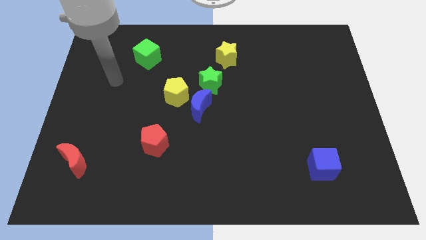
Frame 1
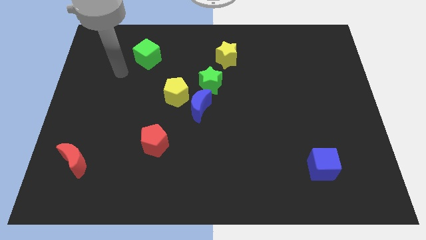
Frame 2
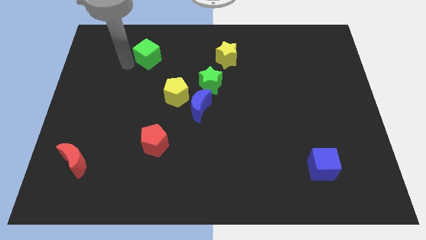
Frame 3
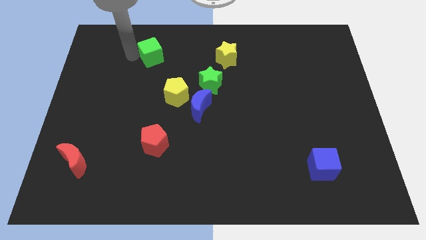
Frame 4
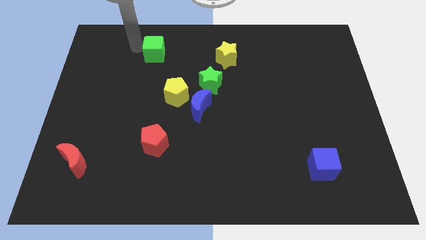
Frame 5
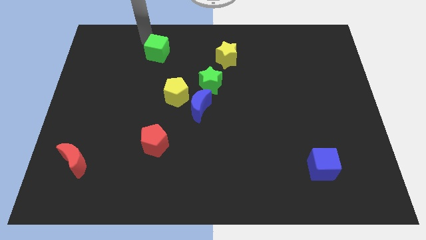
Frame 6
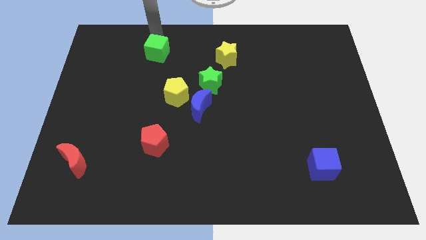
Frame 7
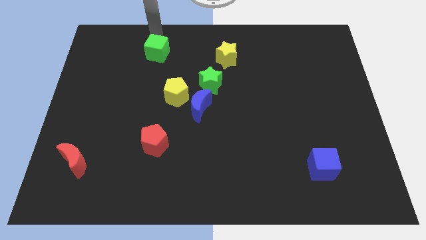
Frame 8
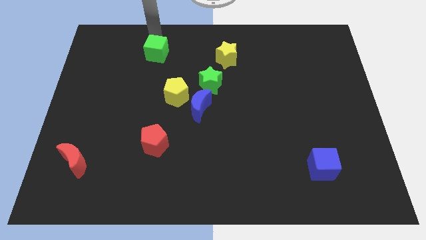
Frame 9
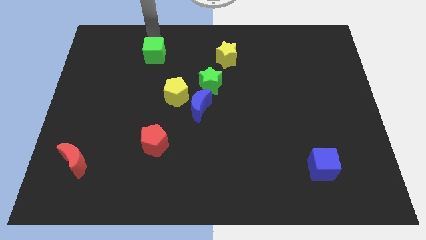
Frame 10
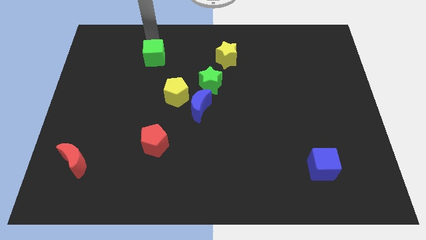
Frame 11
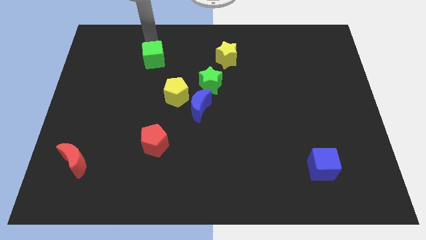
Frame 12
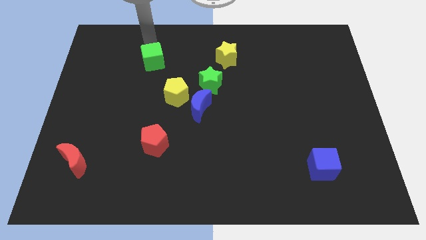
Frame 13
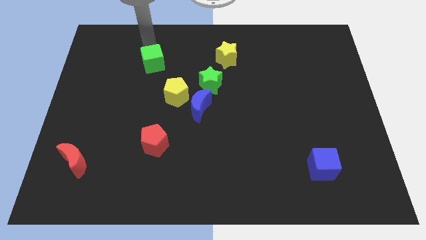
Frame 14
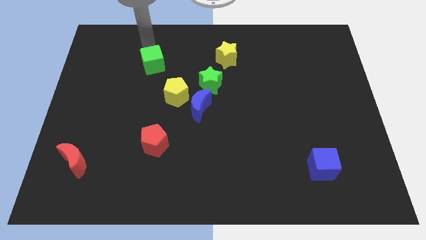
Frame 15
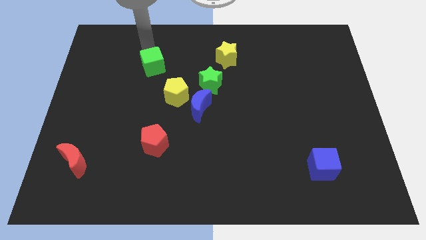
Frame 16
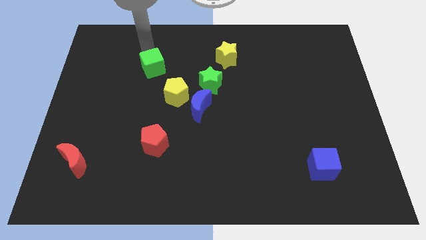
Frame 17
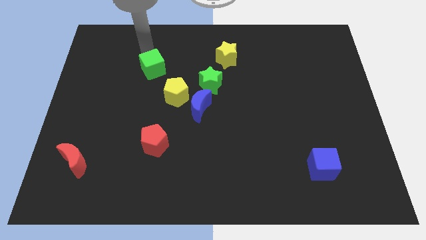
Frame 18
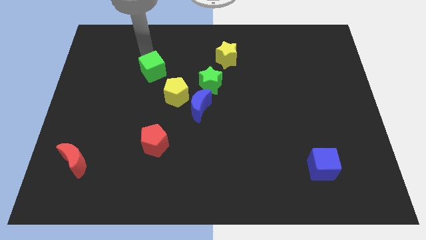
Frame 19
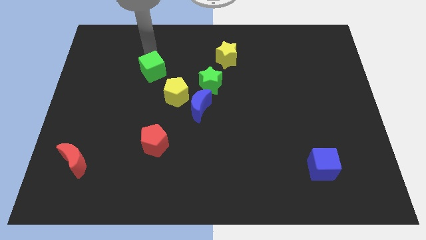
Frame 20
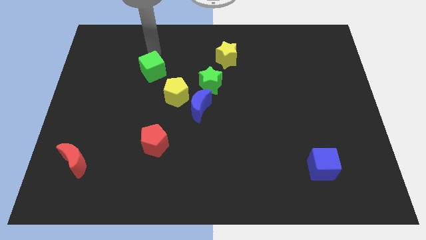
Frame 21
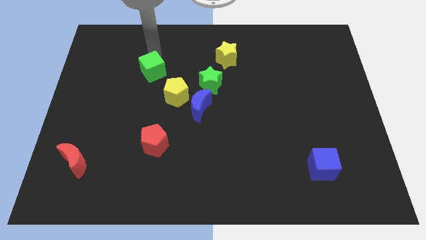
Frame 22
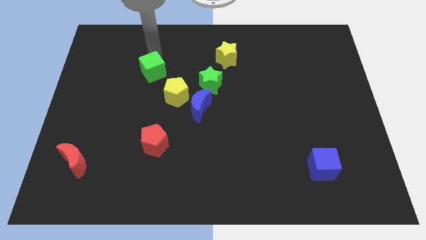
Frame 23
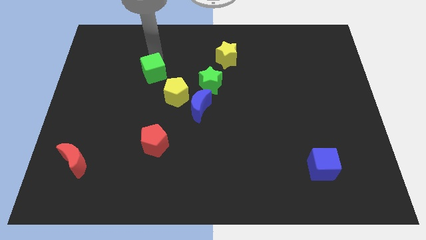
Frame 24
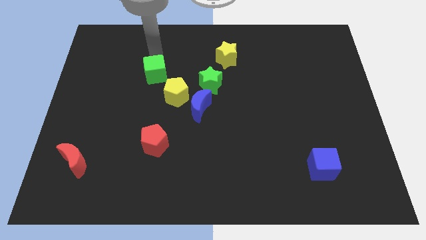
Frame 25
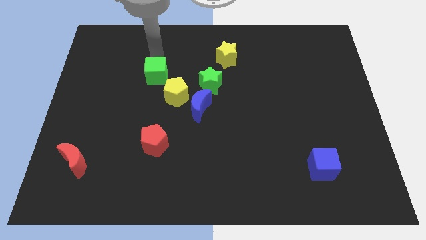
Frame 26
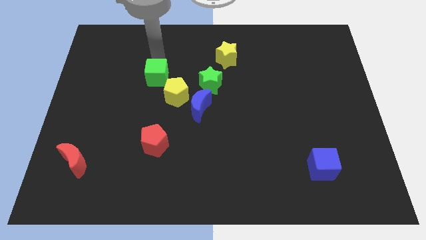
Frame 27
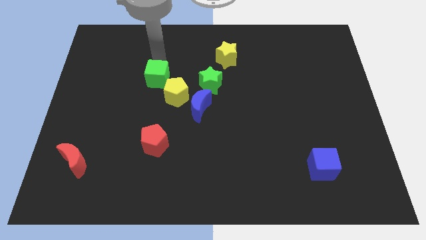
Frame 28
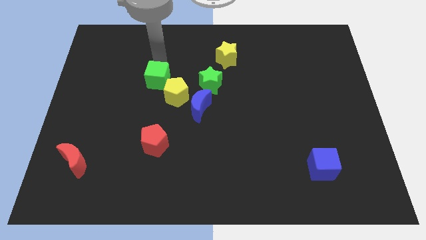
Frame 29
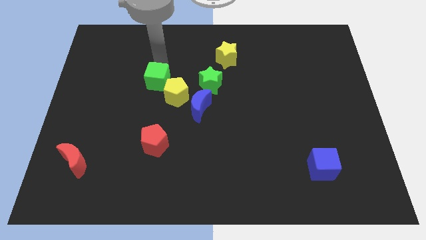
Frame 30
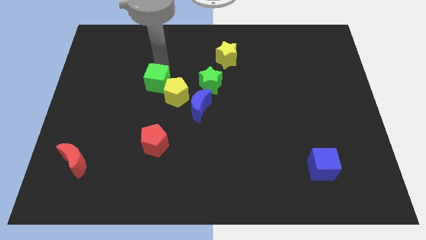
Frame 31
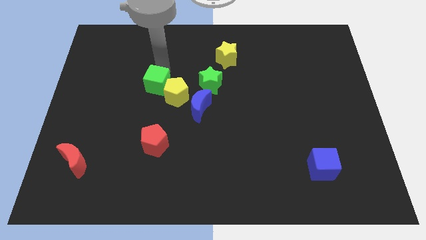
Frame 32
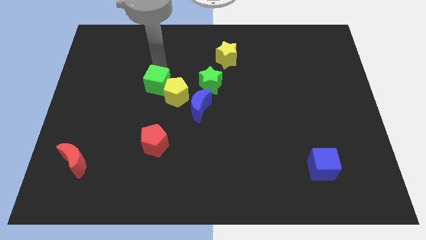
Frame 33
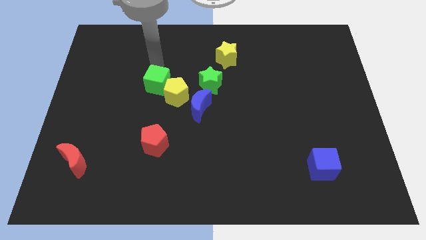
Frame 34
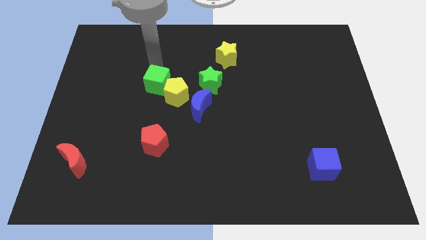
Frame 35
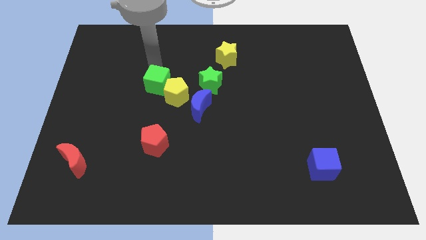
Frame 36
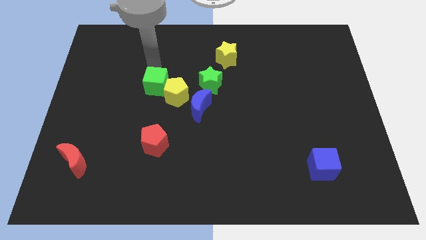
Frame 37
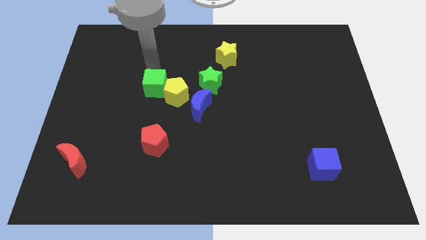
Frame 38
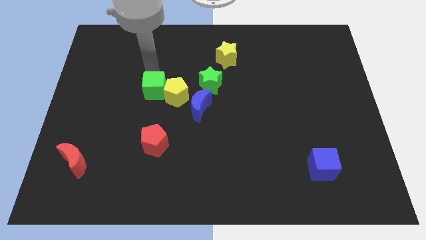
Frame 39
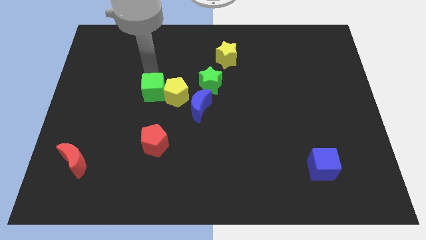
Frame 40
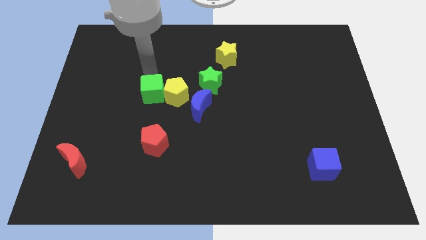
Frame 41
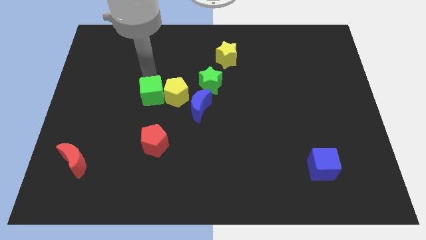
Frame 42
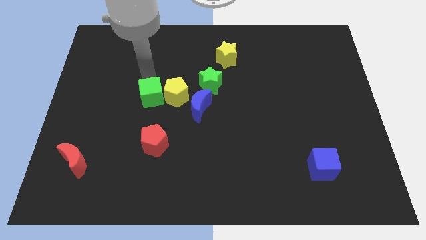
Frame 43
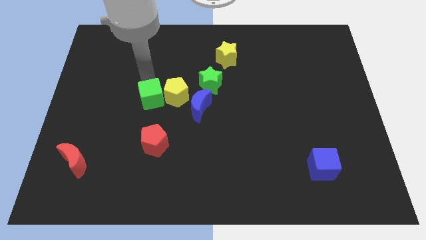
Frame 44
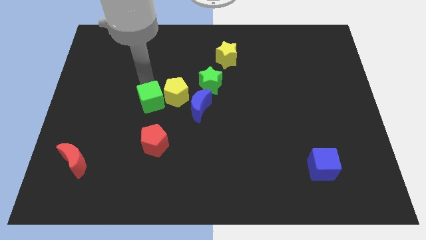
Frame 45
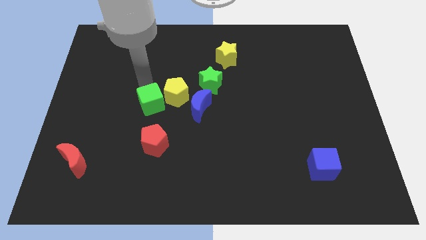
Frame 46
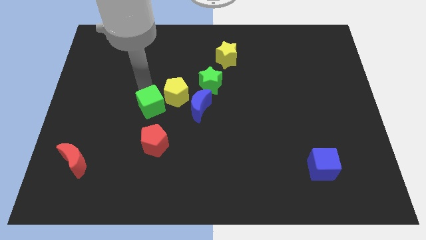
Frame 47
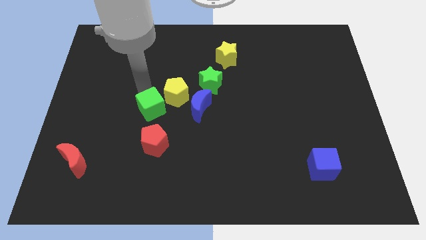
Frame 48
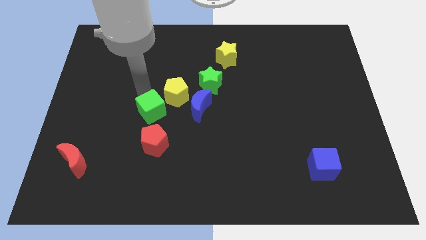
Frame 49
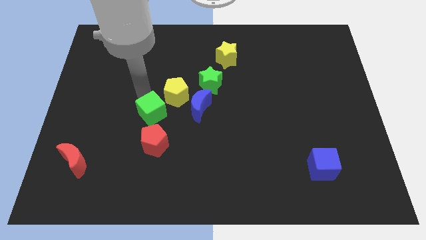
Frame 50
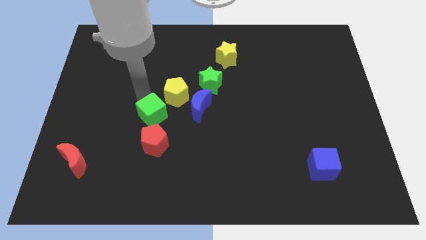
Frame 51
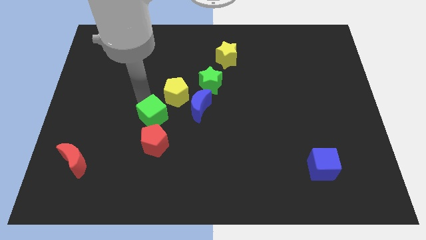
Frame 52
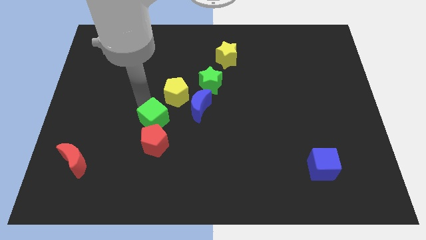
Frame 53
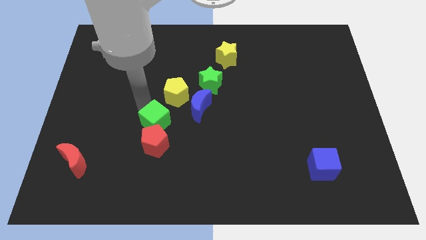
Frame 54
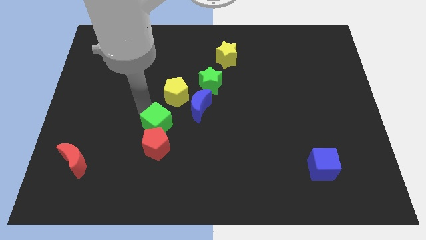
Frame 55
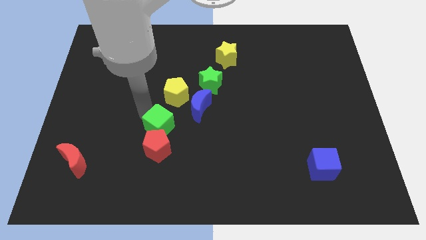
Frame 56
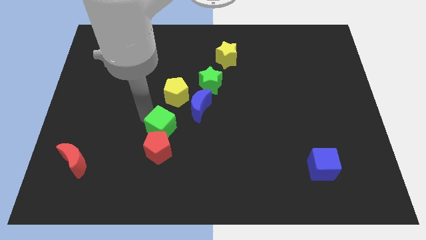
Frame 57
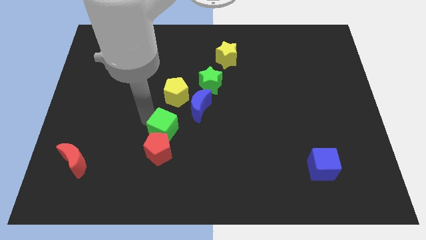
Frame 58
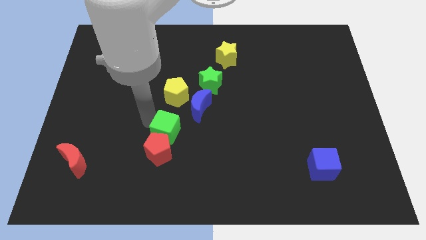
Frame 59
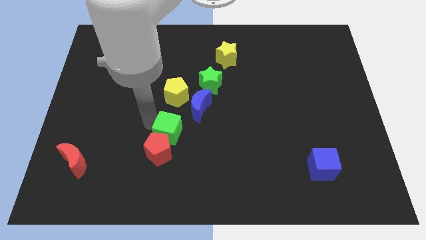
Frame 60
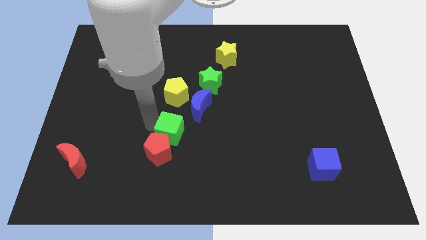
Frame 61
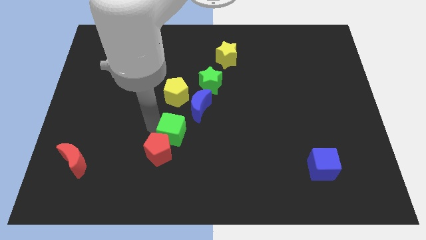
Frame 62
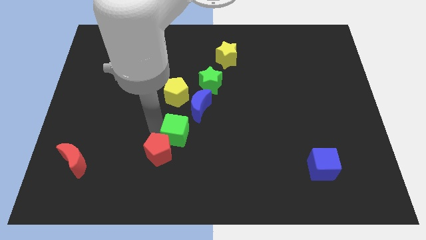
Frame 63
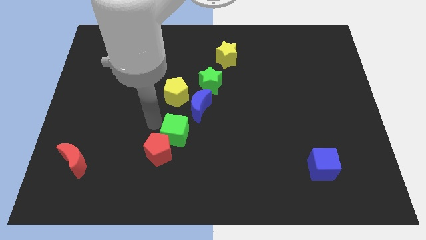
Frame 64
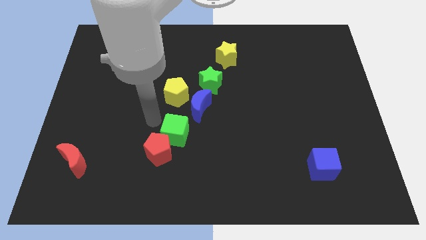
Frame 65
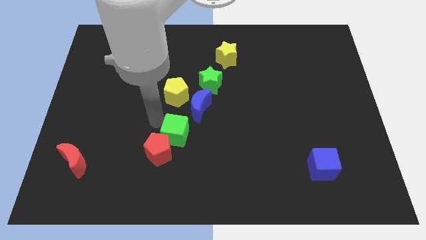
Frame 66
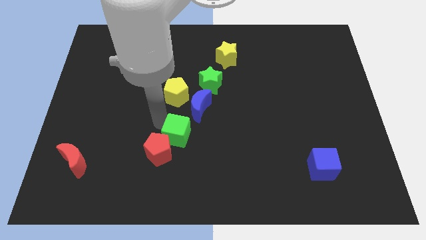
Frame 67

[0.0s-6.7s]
move the green cube to the right side of the red pentagon

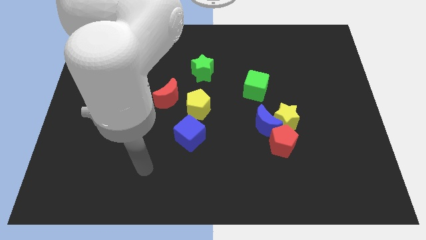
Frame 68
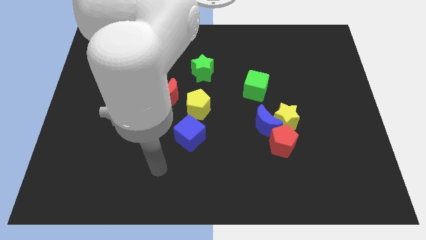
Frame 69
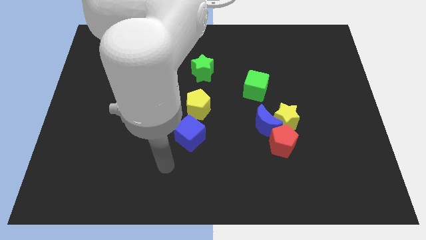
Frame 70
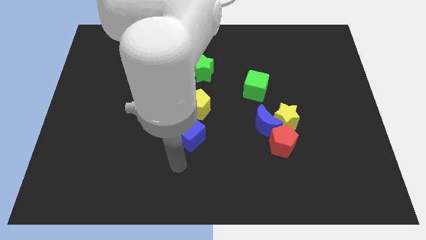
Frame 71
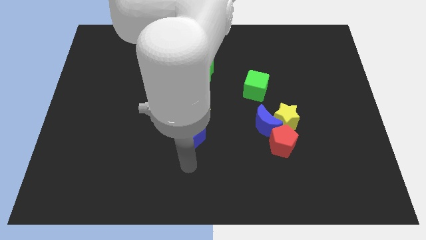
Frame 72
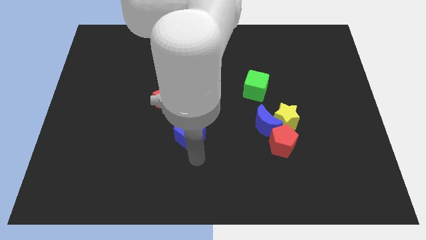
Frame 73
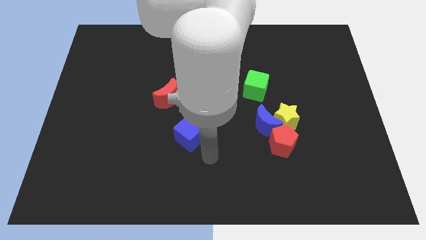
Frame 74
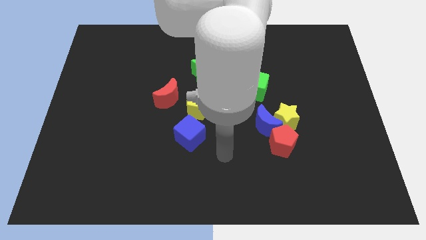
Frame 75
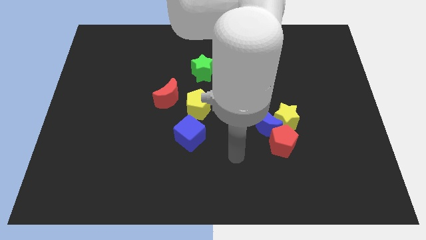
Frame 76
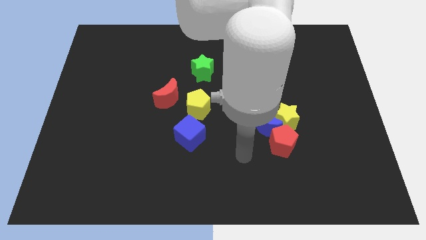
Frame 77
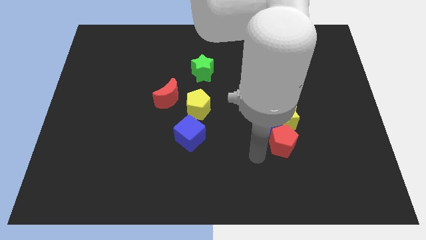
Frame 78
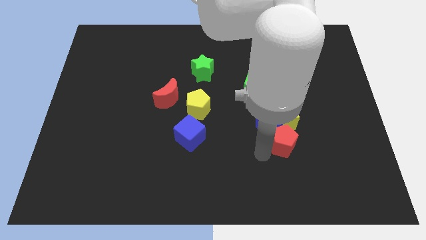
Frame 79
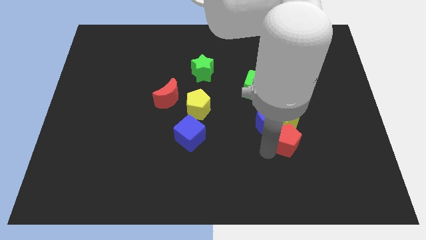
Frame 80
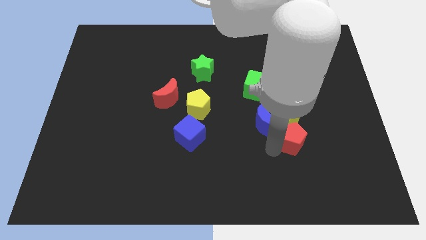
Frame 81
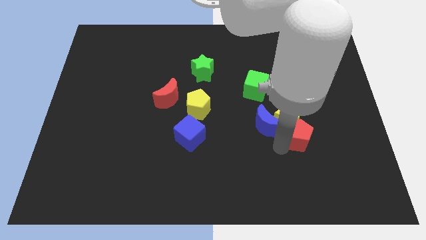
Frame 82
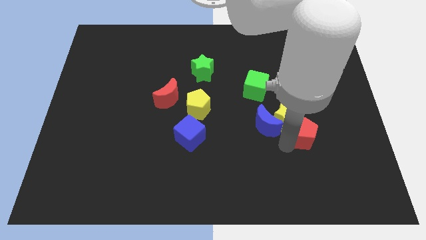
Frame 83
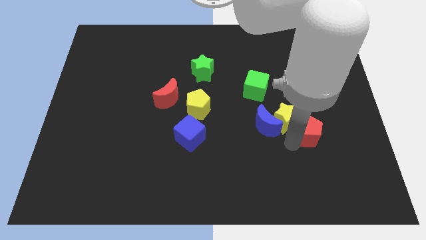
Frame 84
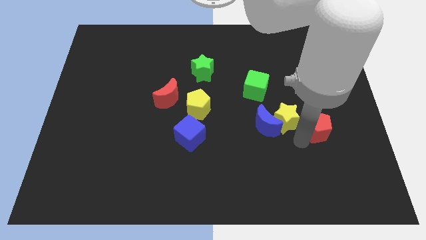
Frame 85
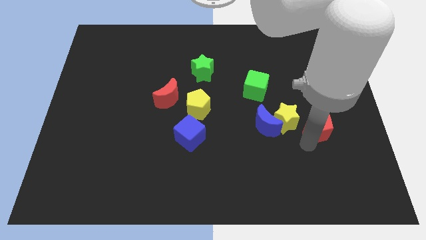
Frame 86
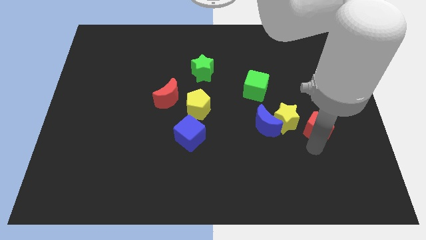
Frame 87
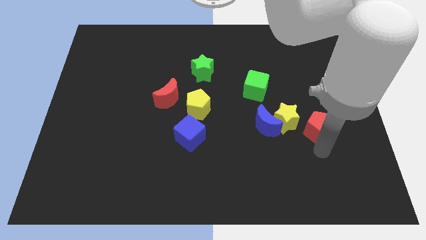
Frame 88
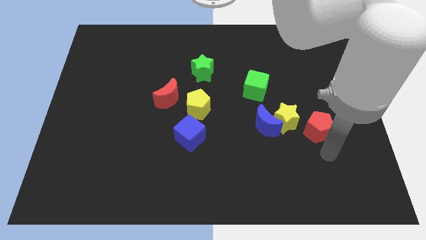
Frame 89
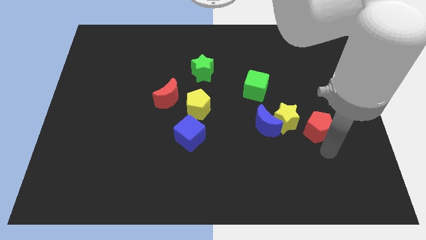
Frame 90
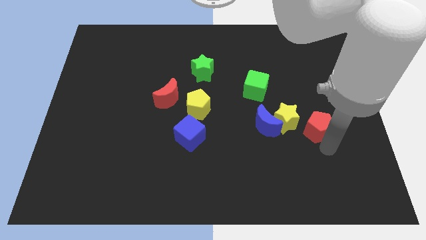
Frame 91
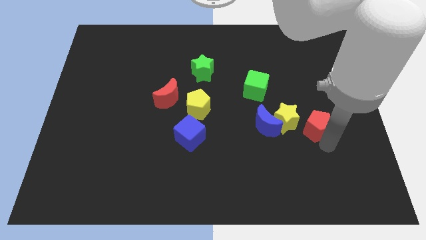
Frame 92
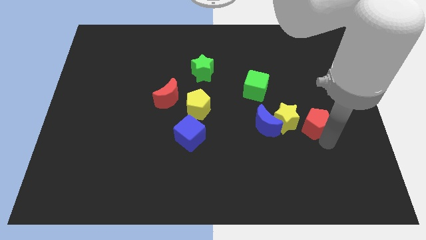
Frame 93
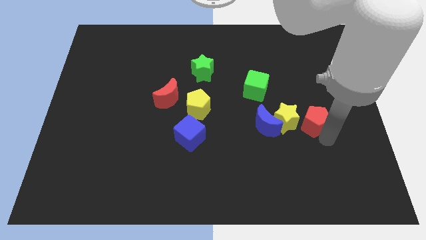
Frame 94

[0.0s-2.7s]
push the red pentagon diagonally up and to the right of the yellow star
